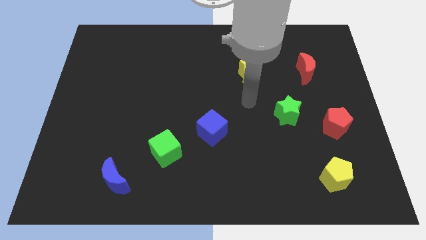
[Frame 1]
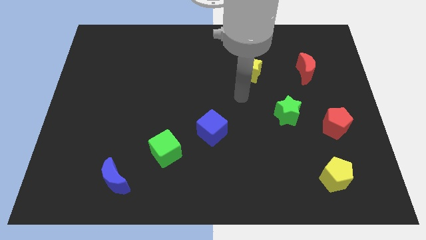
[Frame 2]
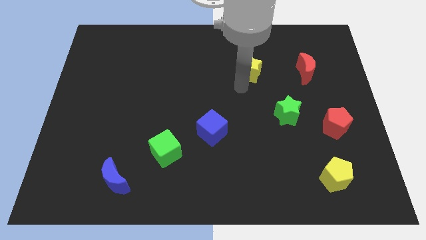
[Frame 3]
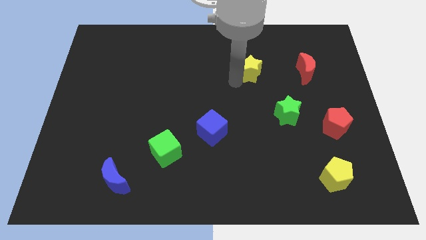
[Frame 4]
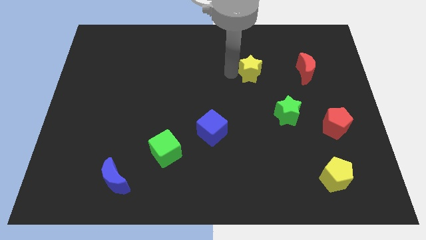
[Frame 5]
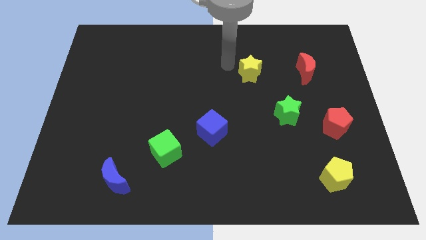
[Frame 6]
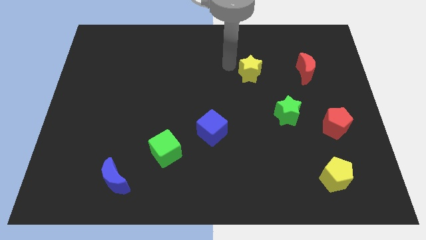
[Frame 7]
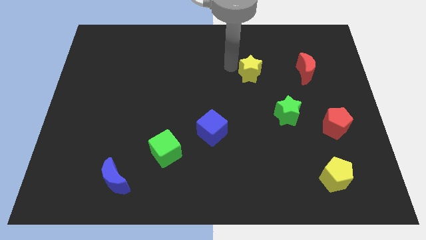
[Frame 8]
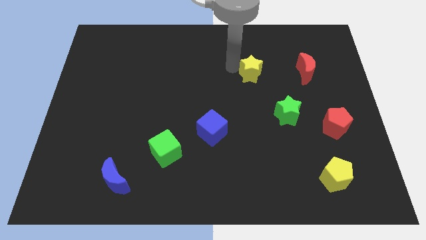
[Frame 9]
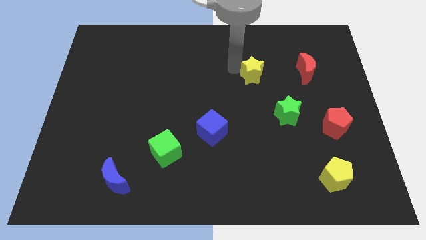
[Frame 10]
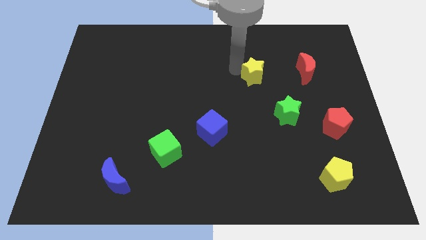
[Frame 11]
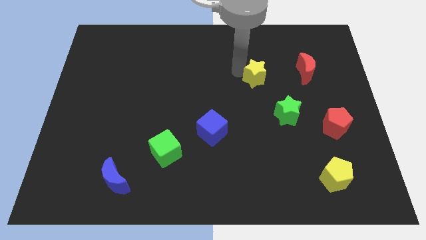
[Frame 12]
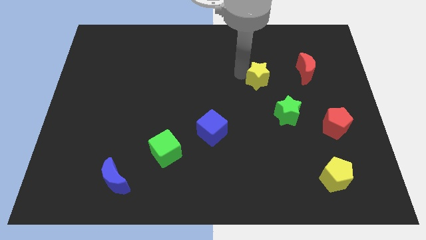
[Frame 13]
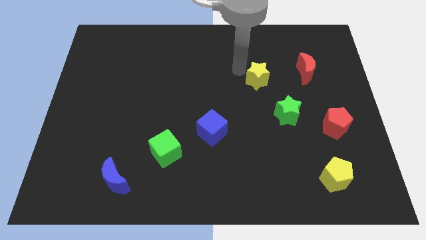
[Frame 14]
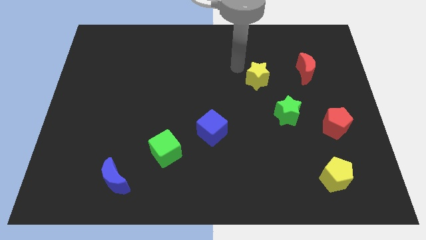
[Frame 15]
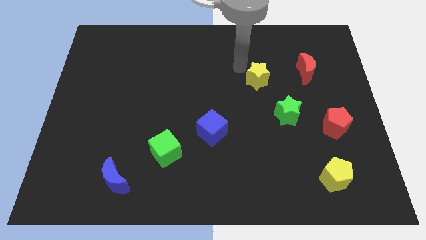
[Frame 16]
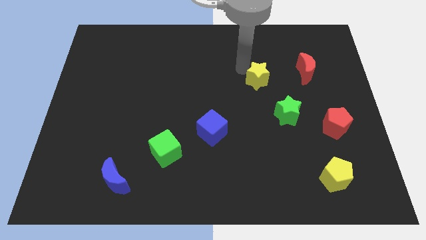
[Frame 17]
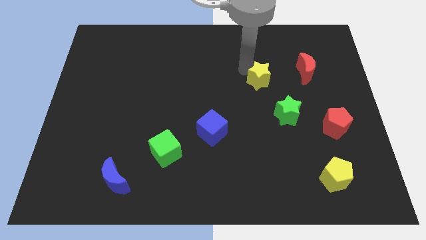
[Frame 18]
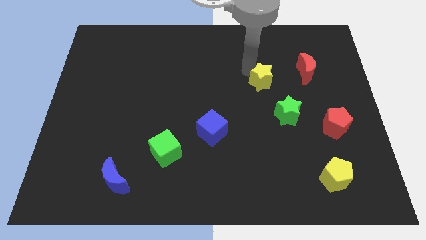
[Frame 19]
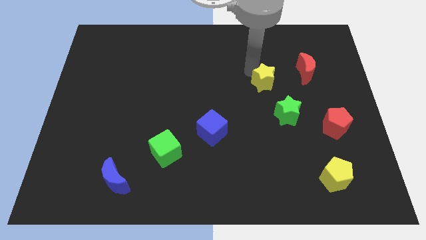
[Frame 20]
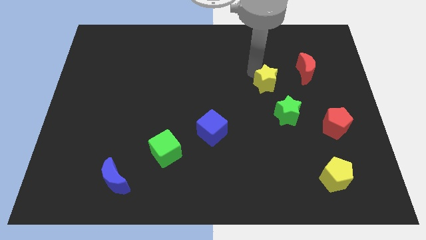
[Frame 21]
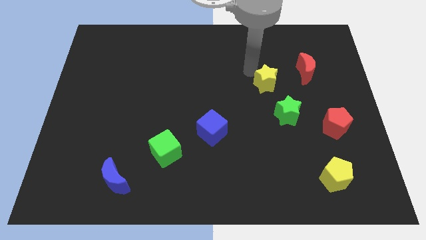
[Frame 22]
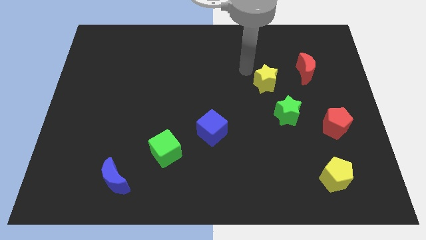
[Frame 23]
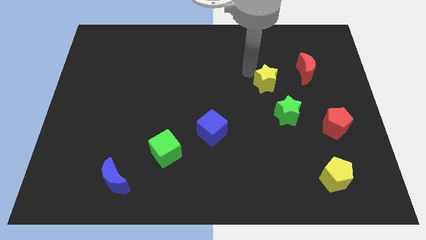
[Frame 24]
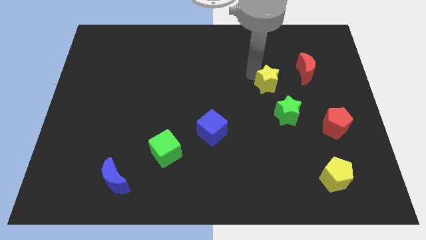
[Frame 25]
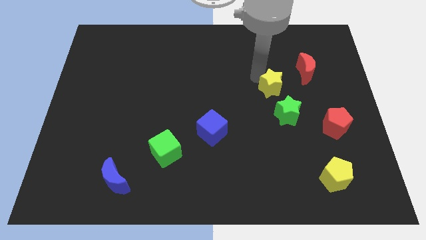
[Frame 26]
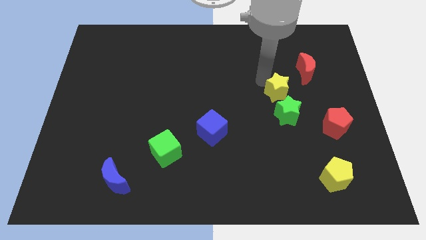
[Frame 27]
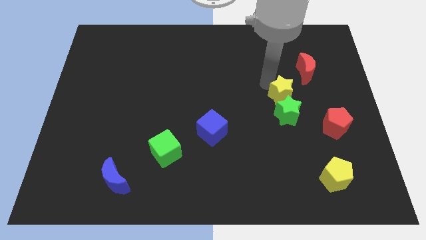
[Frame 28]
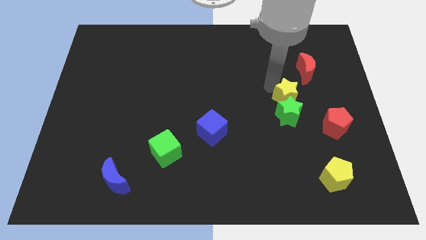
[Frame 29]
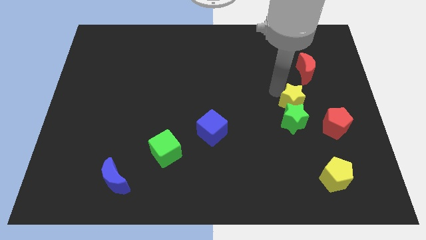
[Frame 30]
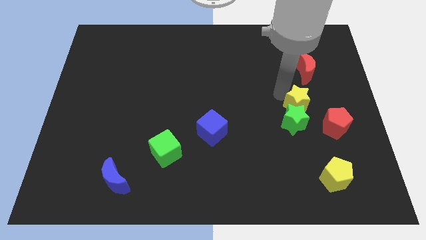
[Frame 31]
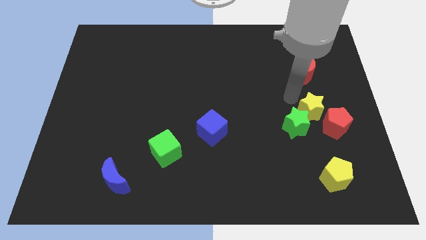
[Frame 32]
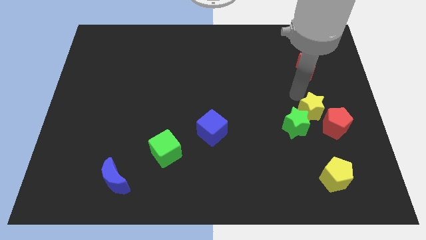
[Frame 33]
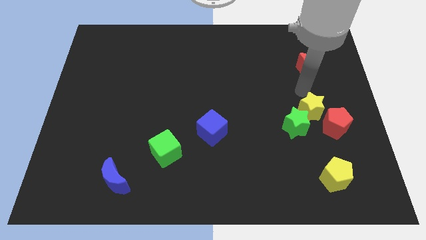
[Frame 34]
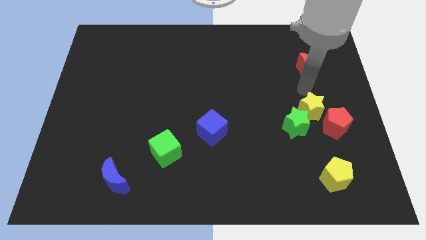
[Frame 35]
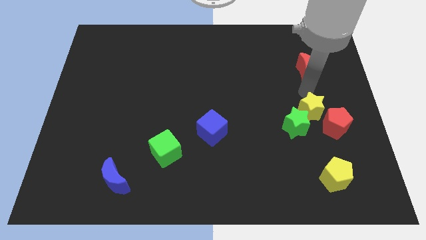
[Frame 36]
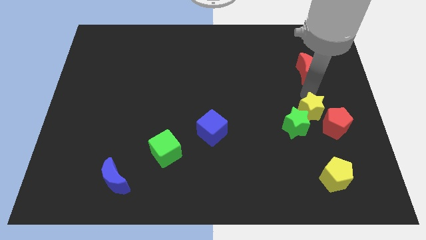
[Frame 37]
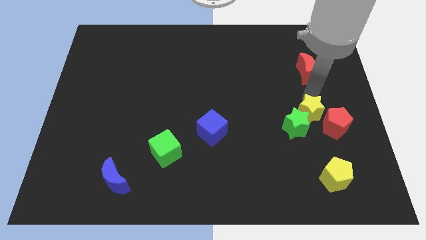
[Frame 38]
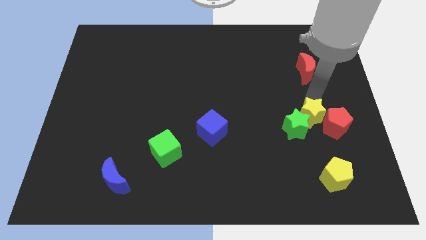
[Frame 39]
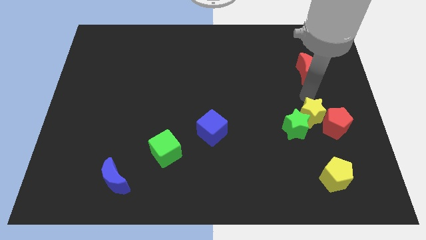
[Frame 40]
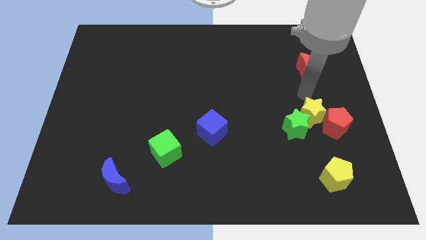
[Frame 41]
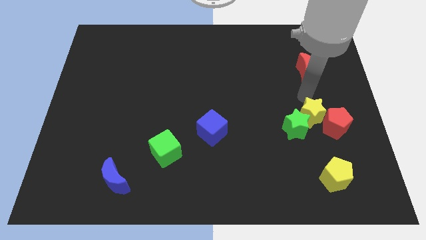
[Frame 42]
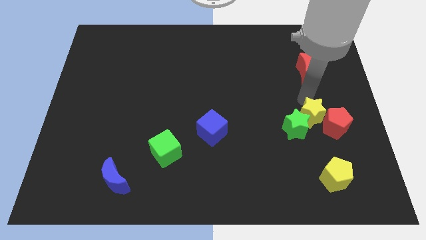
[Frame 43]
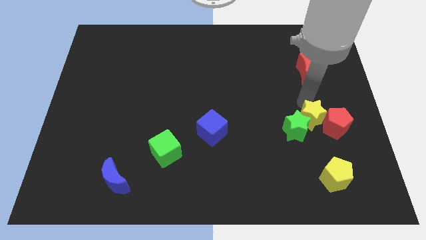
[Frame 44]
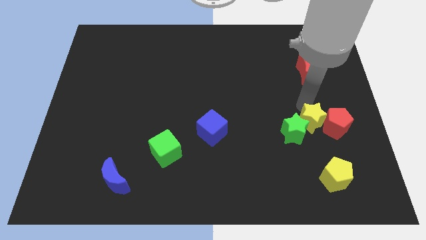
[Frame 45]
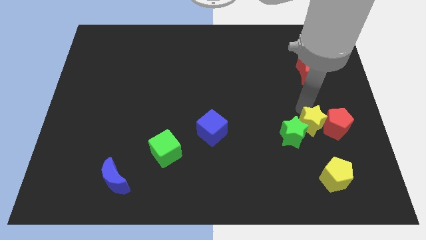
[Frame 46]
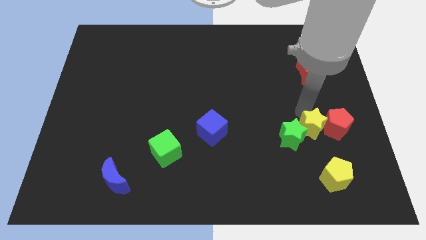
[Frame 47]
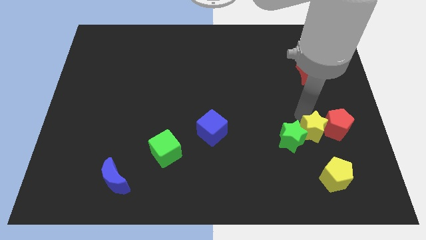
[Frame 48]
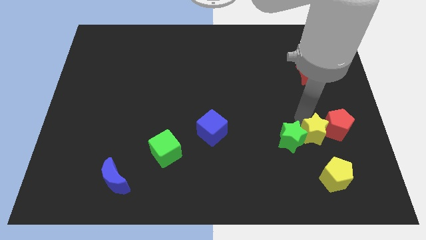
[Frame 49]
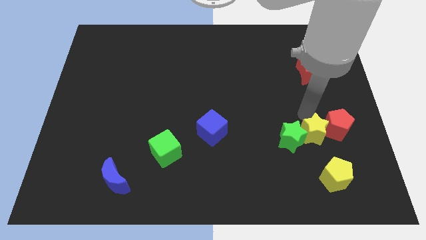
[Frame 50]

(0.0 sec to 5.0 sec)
move the yellow star diagonally down and to the right of the green star

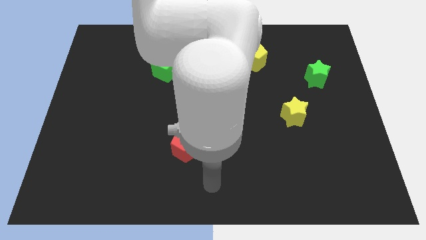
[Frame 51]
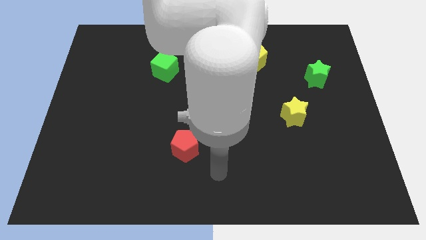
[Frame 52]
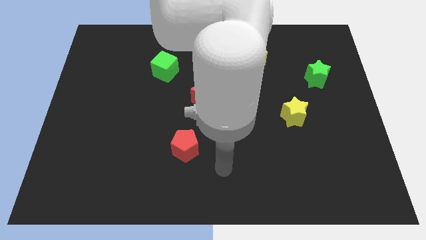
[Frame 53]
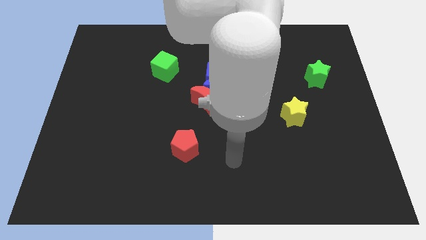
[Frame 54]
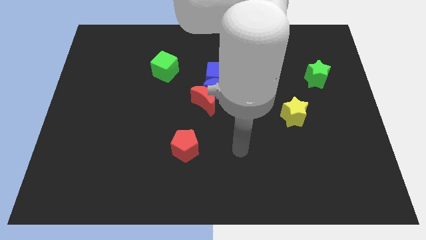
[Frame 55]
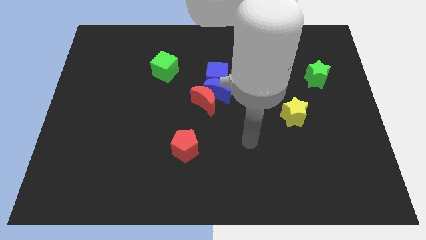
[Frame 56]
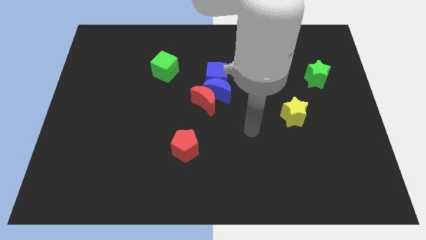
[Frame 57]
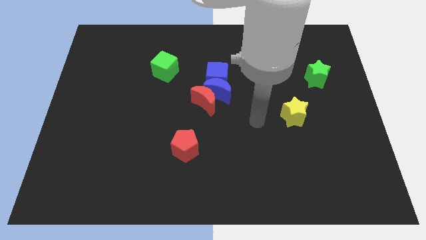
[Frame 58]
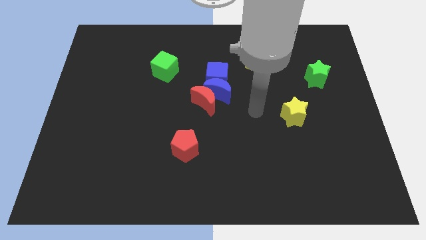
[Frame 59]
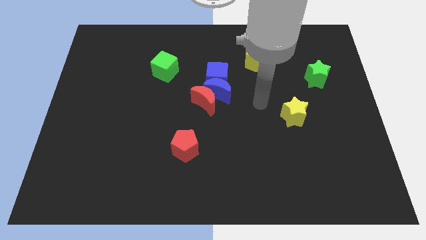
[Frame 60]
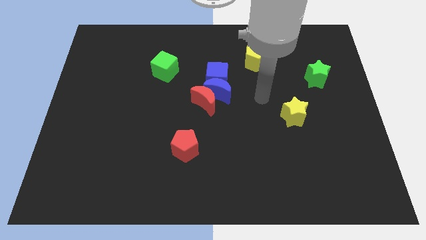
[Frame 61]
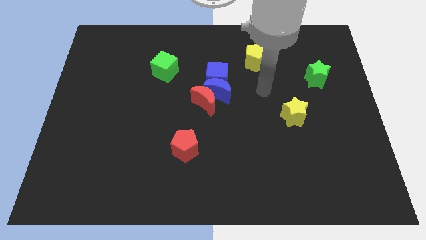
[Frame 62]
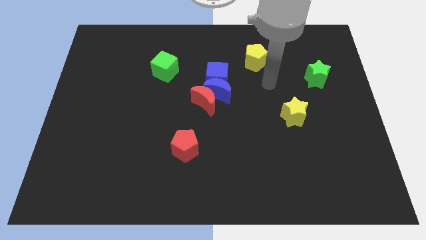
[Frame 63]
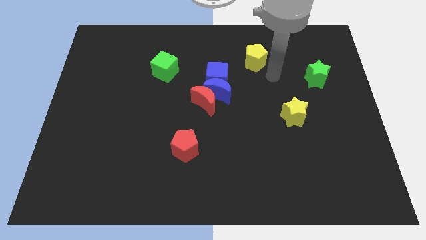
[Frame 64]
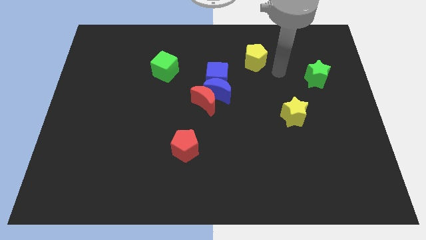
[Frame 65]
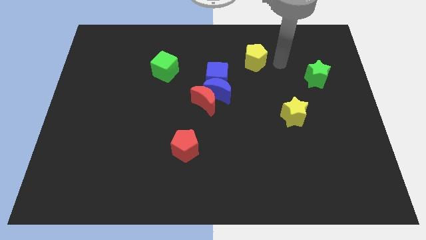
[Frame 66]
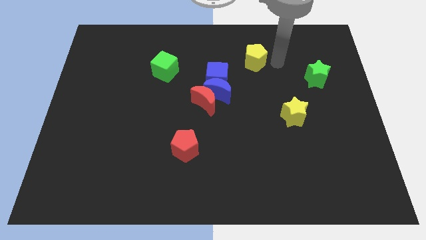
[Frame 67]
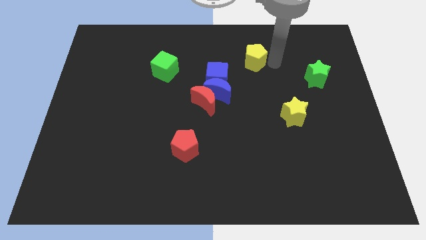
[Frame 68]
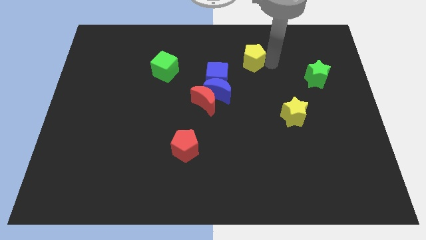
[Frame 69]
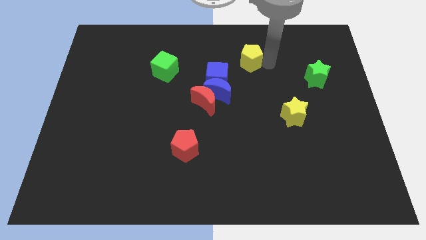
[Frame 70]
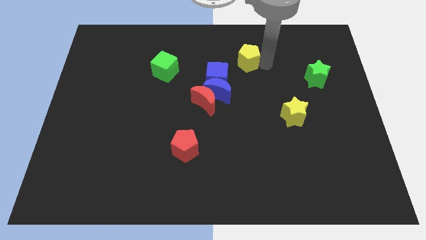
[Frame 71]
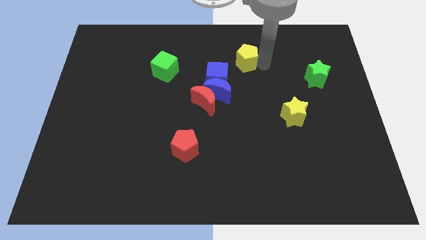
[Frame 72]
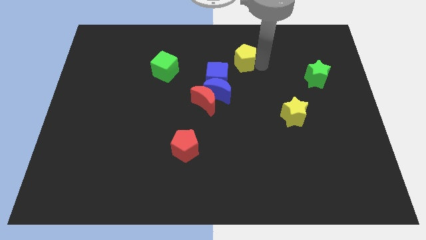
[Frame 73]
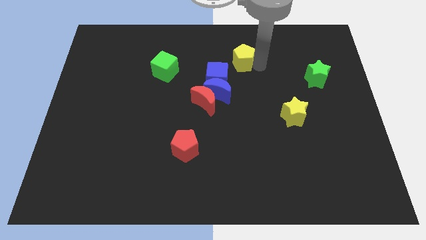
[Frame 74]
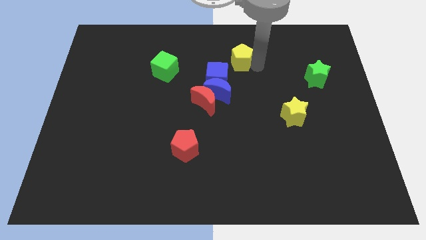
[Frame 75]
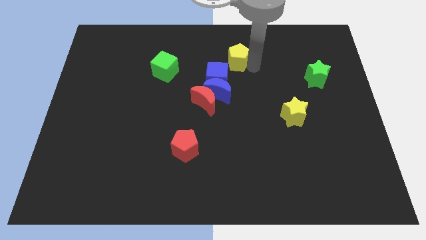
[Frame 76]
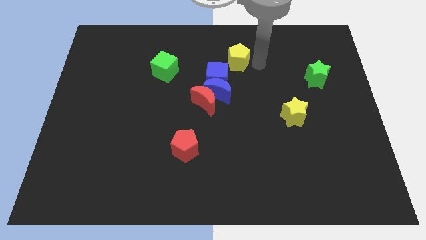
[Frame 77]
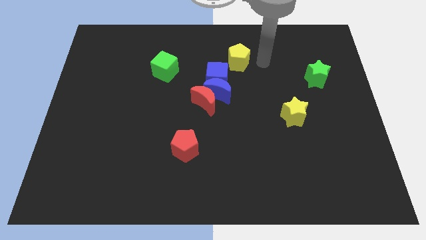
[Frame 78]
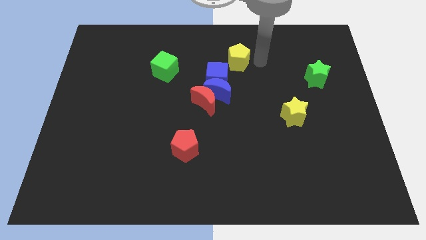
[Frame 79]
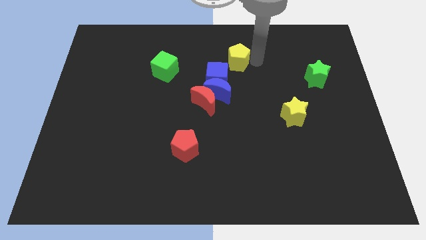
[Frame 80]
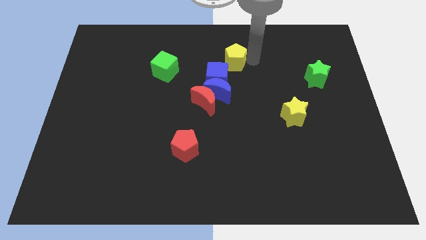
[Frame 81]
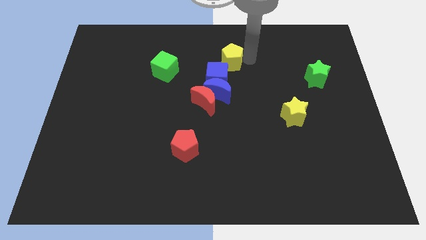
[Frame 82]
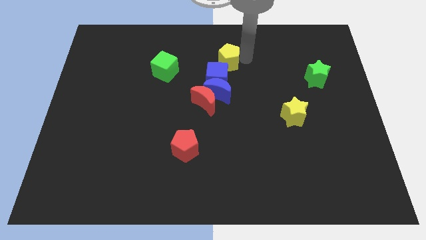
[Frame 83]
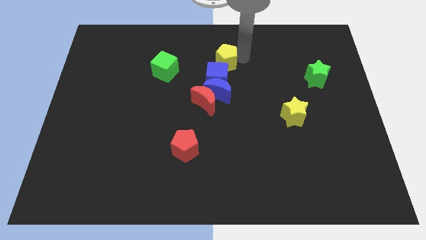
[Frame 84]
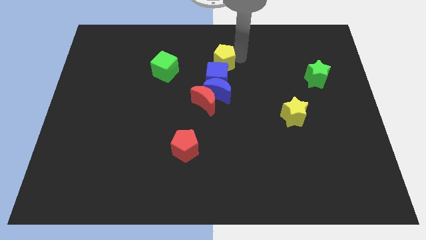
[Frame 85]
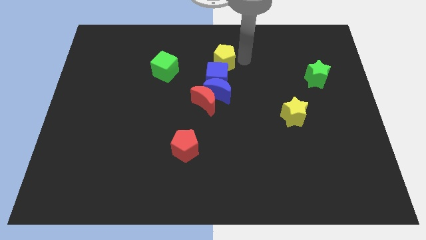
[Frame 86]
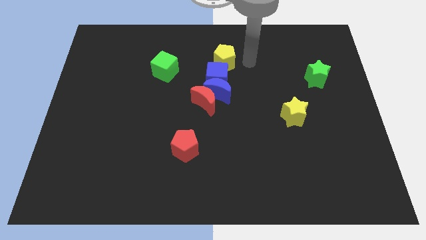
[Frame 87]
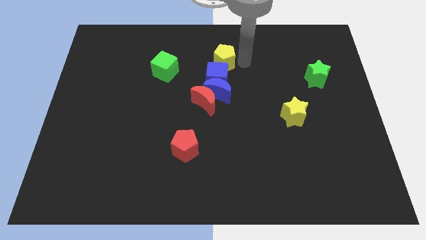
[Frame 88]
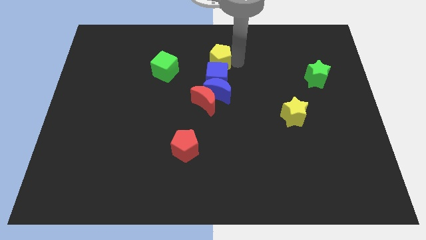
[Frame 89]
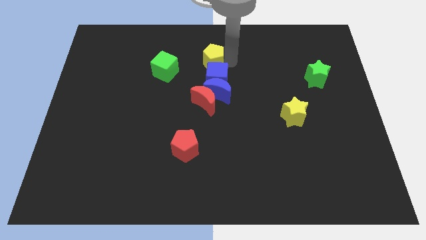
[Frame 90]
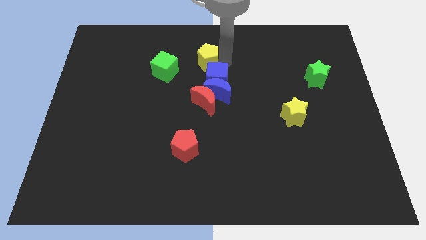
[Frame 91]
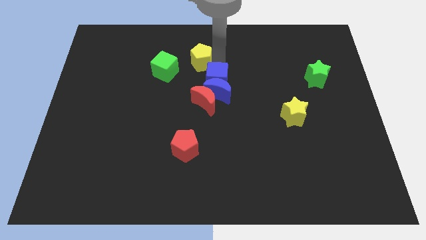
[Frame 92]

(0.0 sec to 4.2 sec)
move the yellow pentagon diagonally up and to the right of the green cube
